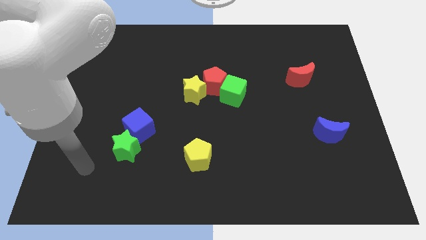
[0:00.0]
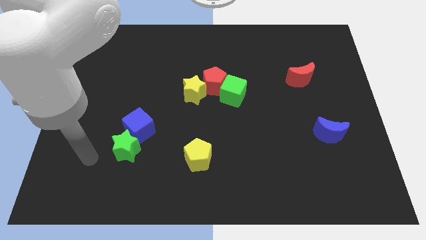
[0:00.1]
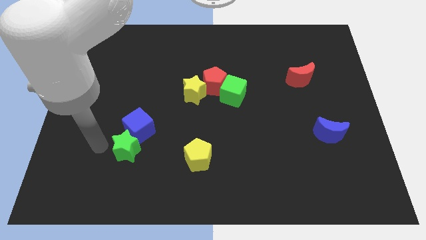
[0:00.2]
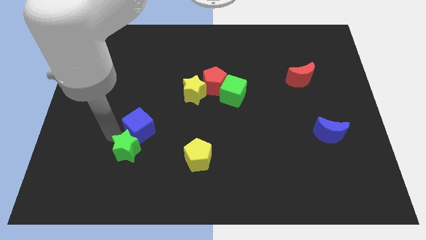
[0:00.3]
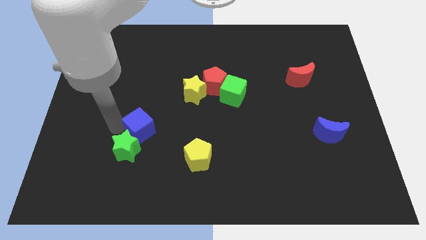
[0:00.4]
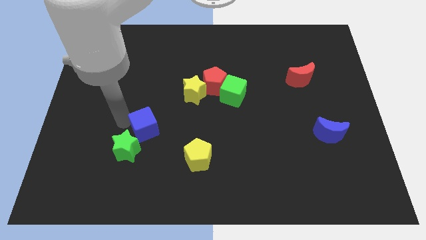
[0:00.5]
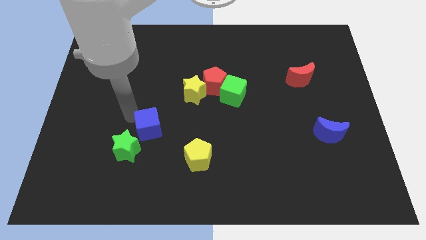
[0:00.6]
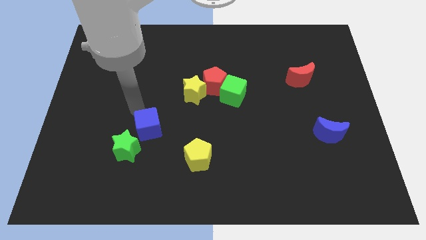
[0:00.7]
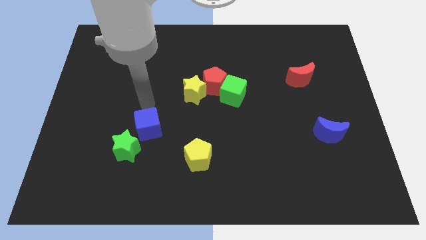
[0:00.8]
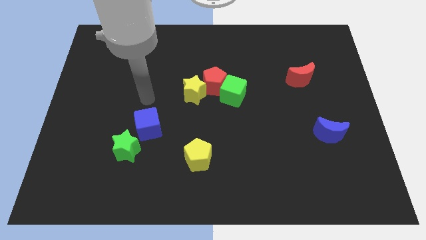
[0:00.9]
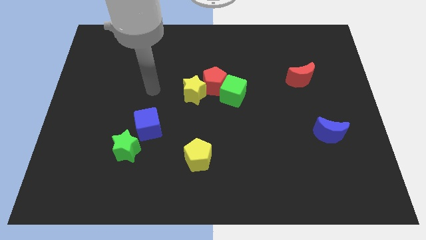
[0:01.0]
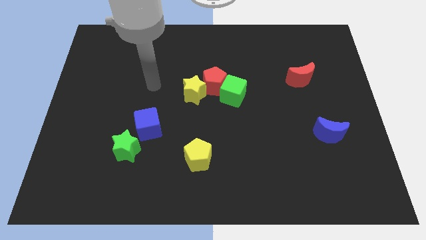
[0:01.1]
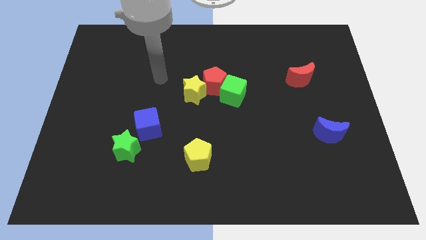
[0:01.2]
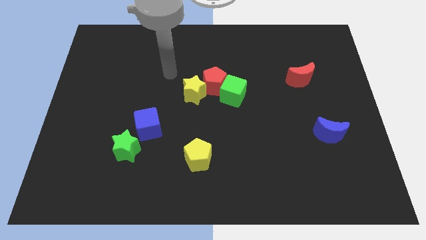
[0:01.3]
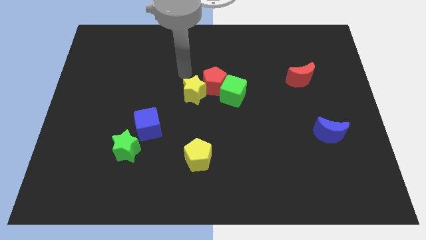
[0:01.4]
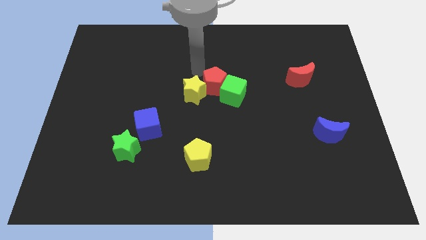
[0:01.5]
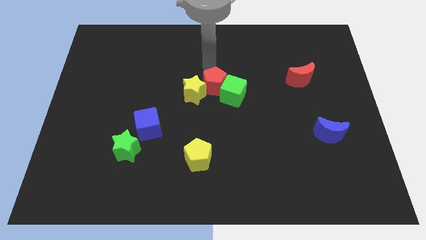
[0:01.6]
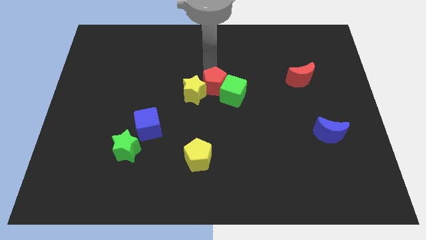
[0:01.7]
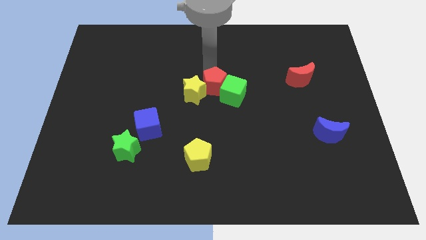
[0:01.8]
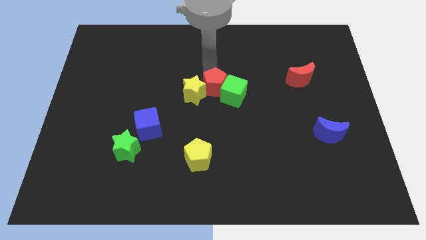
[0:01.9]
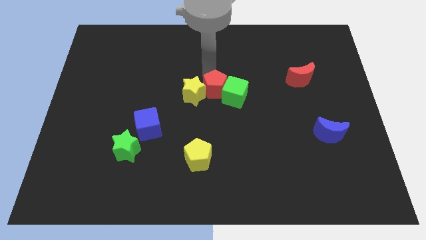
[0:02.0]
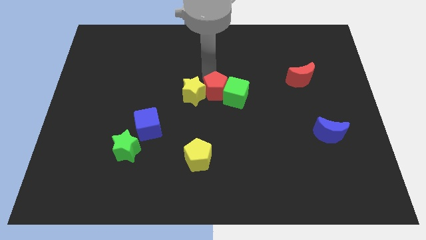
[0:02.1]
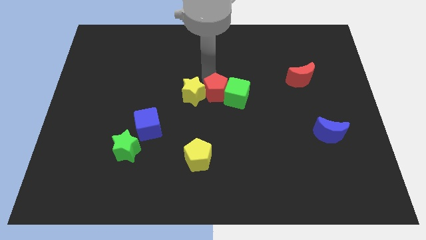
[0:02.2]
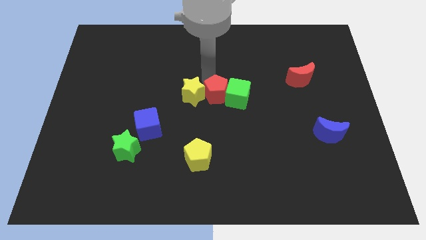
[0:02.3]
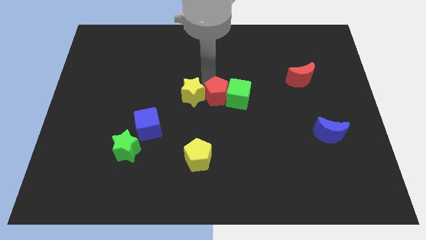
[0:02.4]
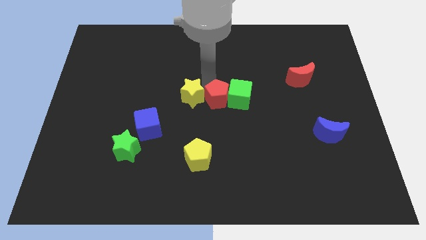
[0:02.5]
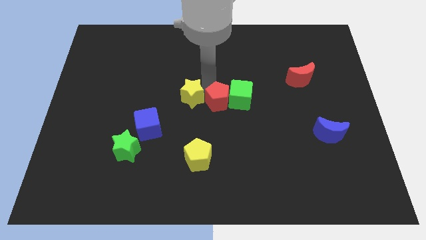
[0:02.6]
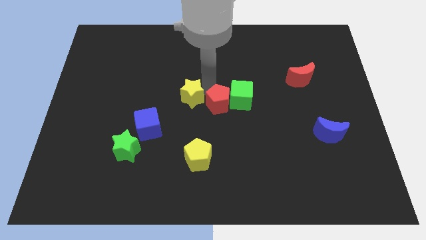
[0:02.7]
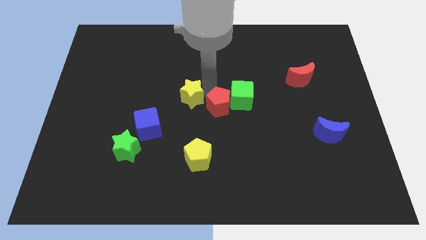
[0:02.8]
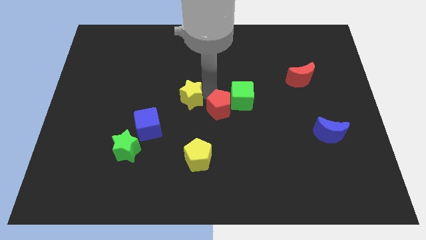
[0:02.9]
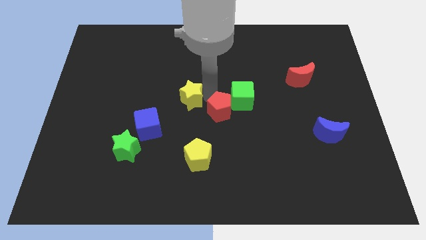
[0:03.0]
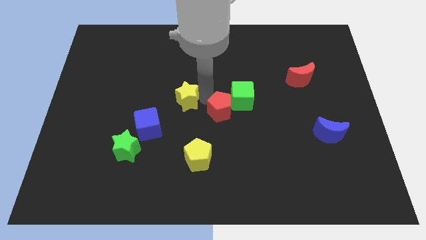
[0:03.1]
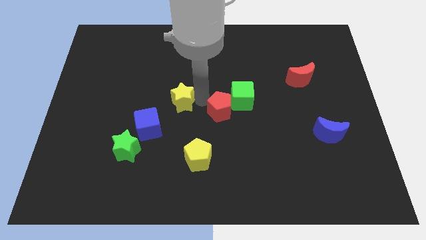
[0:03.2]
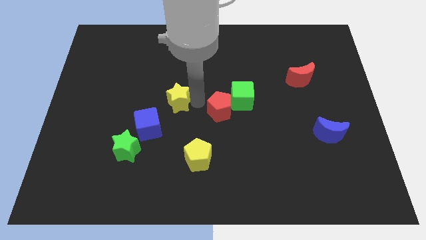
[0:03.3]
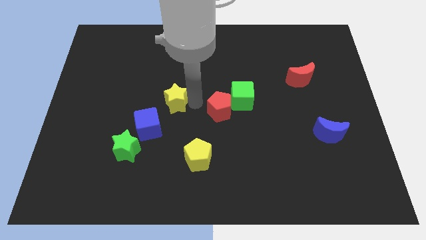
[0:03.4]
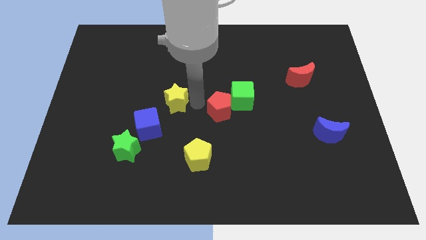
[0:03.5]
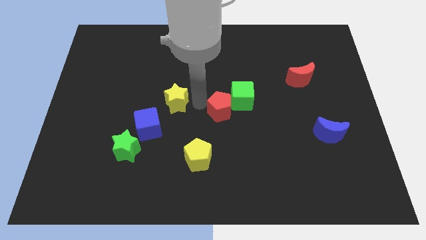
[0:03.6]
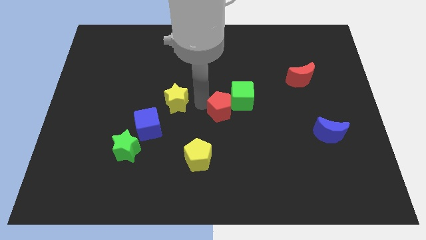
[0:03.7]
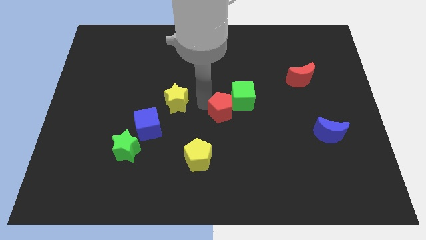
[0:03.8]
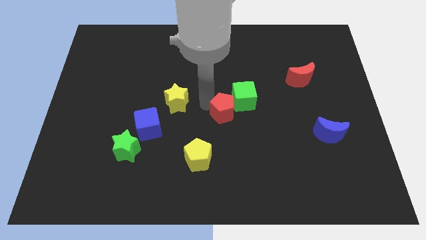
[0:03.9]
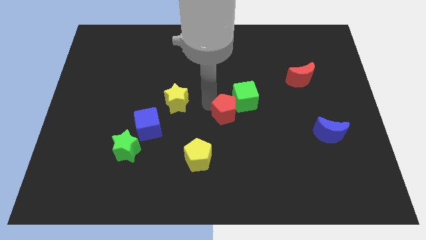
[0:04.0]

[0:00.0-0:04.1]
move the red pentagon down and right diagonally a bit

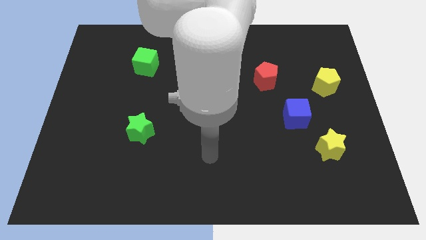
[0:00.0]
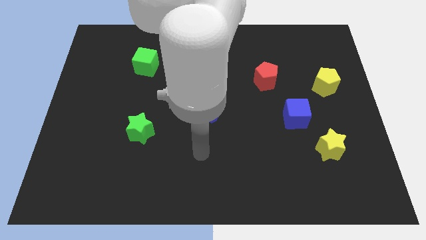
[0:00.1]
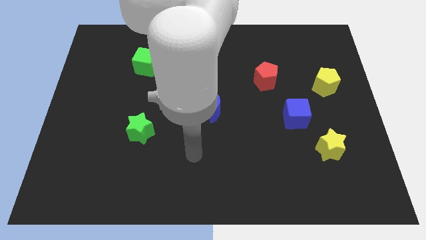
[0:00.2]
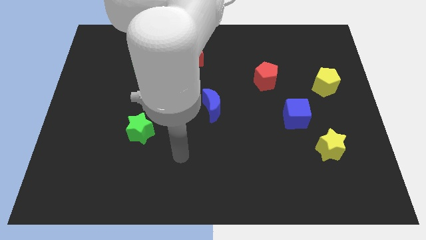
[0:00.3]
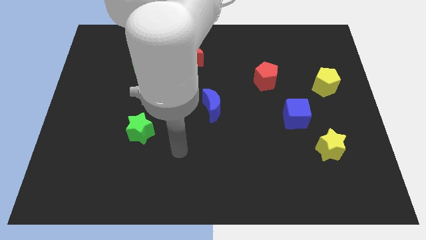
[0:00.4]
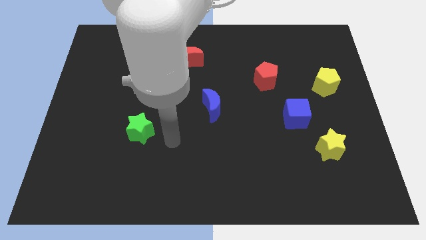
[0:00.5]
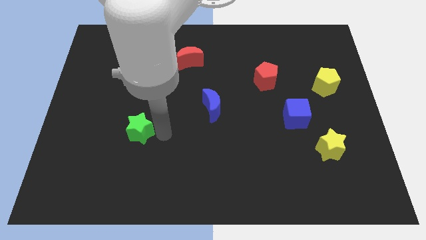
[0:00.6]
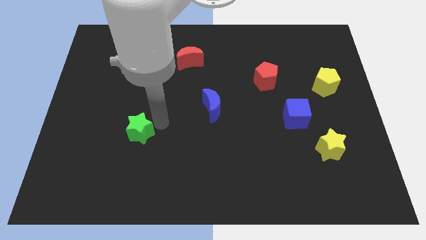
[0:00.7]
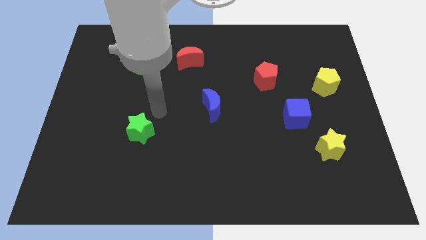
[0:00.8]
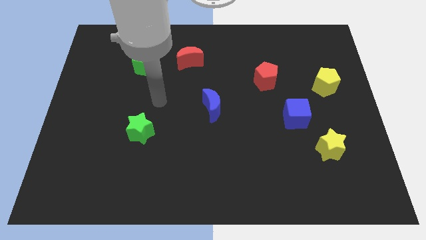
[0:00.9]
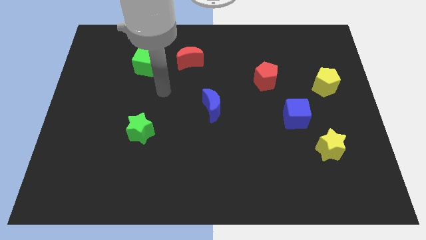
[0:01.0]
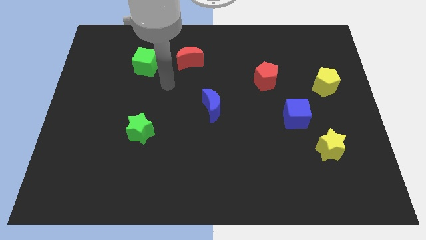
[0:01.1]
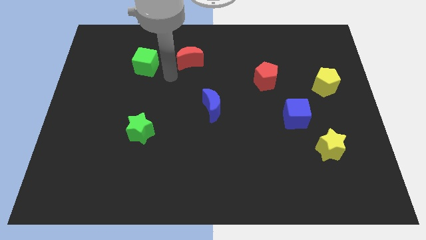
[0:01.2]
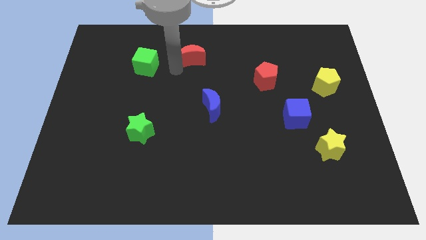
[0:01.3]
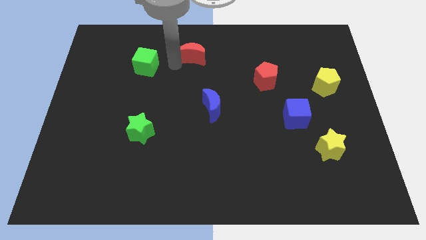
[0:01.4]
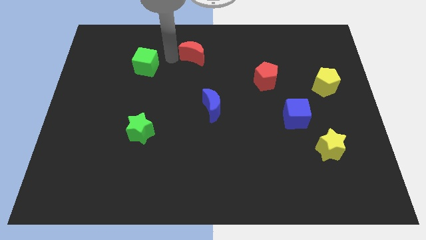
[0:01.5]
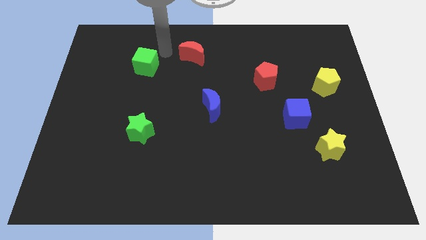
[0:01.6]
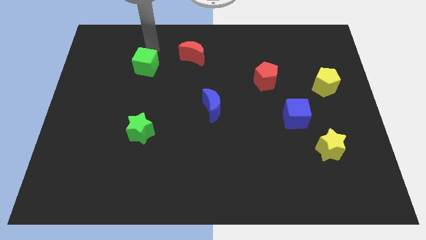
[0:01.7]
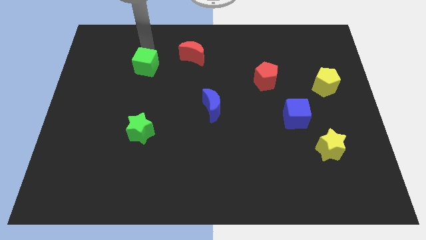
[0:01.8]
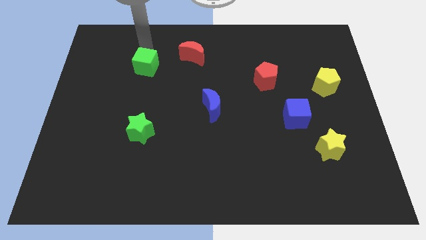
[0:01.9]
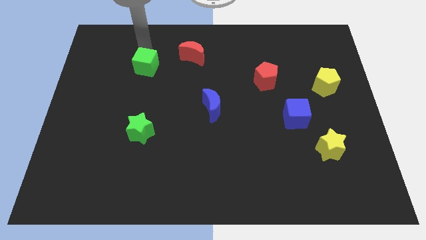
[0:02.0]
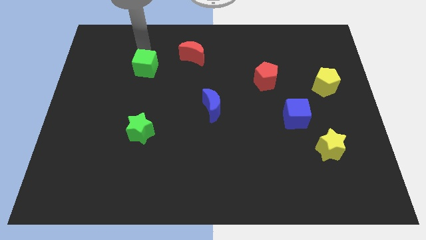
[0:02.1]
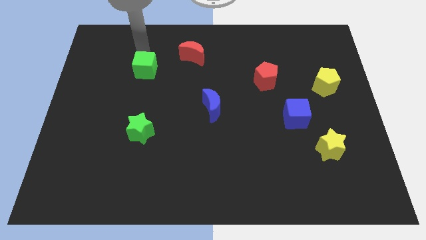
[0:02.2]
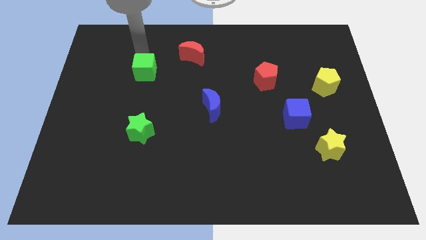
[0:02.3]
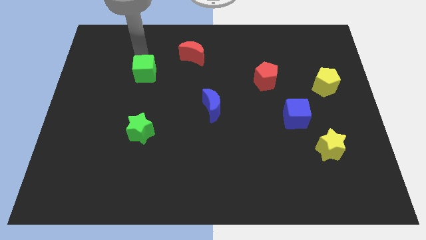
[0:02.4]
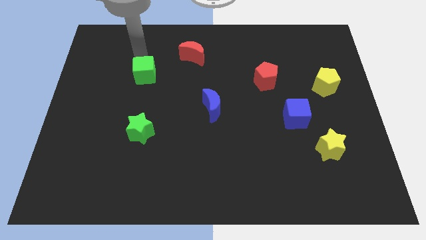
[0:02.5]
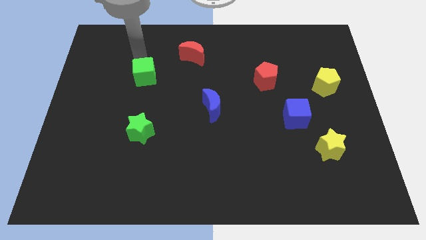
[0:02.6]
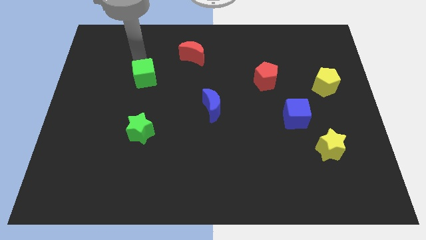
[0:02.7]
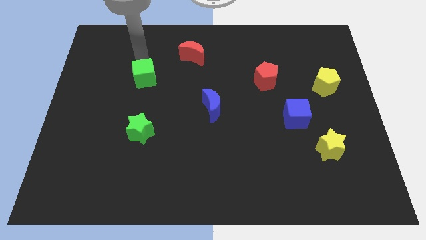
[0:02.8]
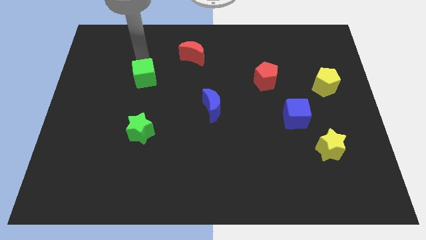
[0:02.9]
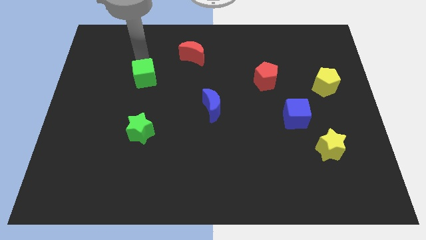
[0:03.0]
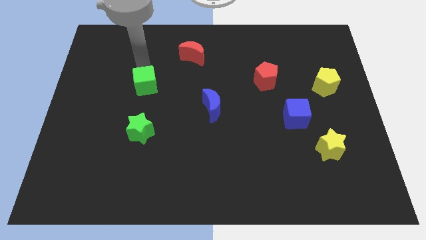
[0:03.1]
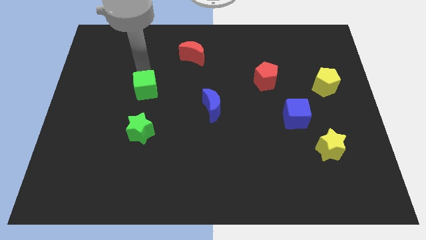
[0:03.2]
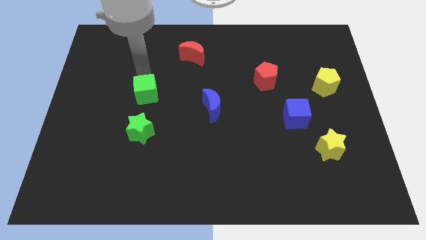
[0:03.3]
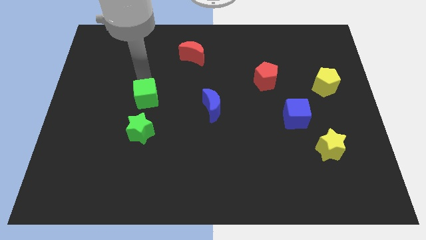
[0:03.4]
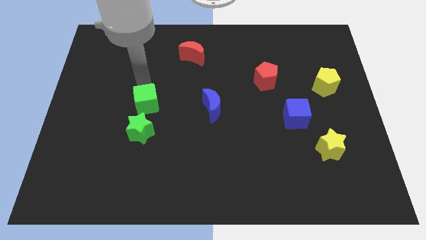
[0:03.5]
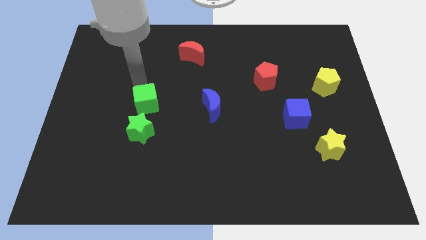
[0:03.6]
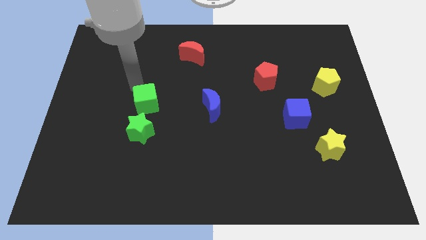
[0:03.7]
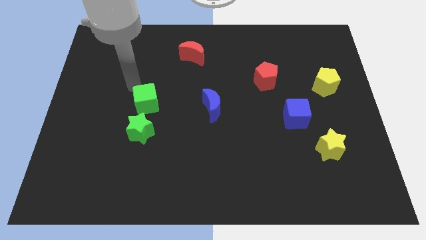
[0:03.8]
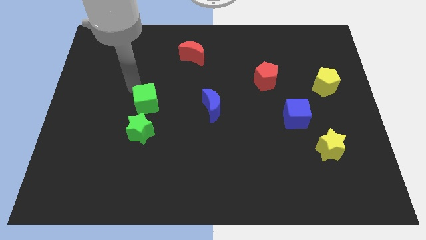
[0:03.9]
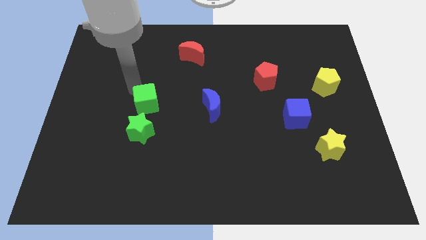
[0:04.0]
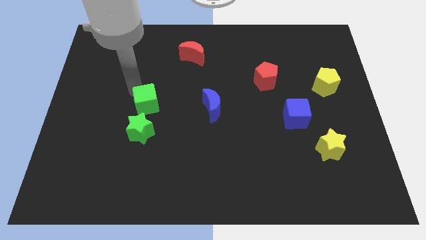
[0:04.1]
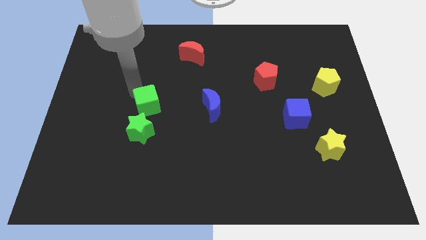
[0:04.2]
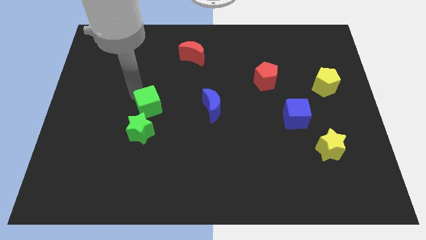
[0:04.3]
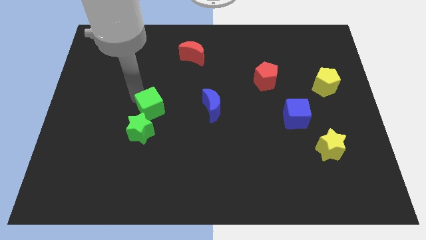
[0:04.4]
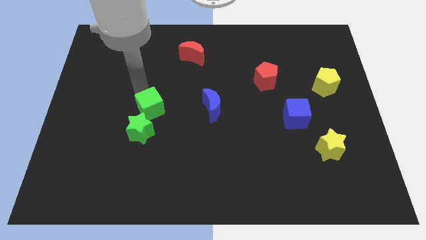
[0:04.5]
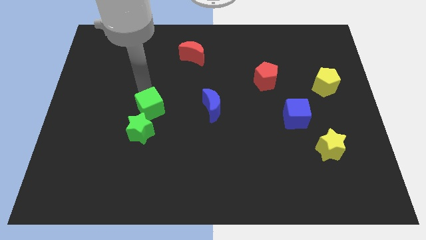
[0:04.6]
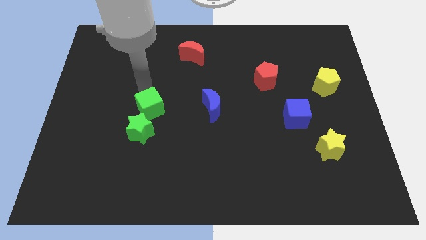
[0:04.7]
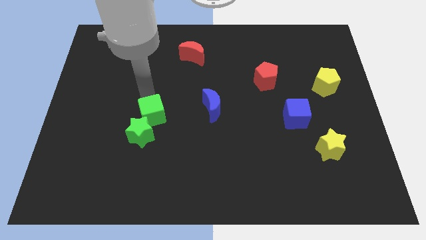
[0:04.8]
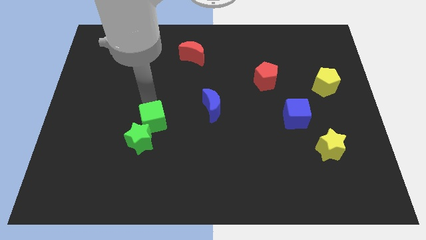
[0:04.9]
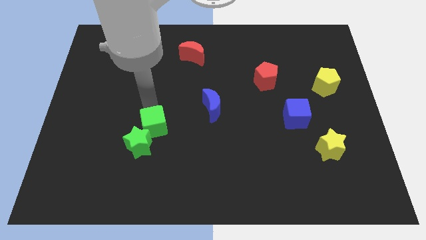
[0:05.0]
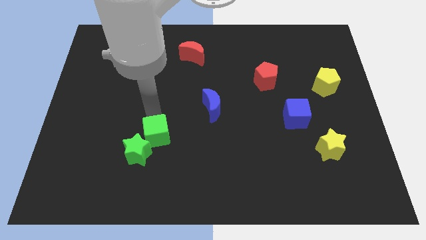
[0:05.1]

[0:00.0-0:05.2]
slide the green cube down
